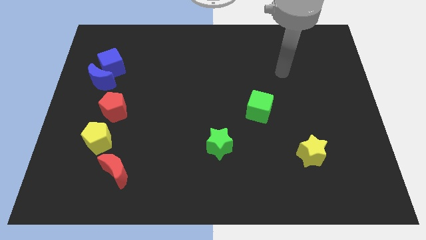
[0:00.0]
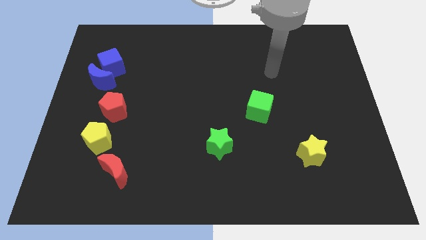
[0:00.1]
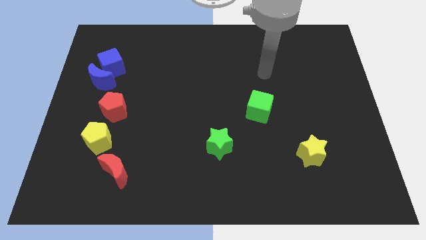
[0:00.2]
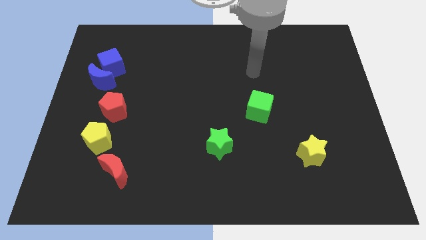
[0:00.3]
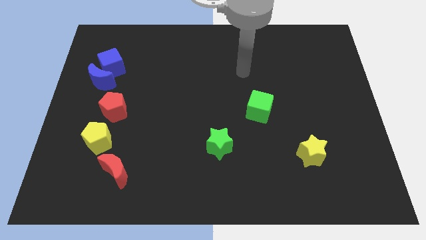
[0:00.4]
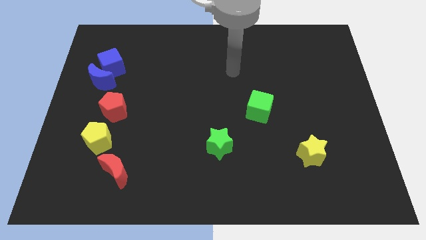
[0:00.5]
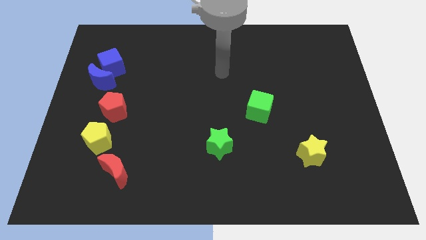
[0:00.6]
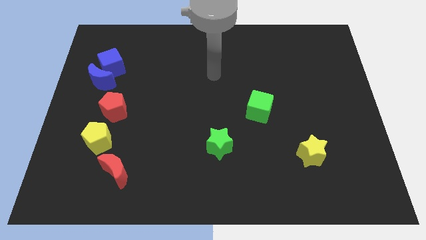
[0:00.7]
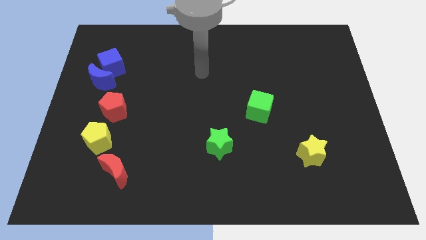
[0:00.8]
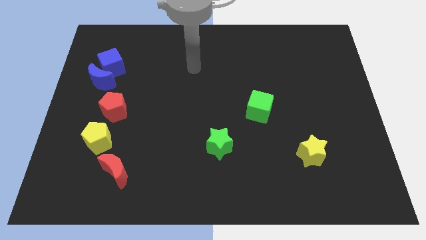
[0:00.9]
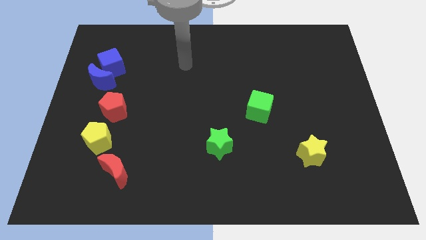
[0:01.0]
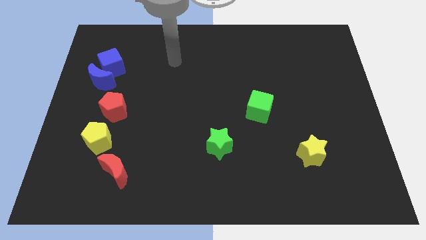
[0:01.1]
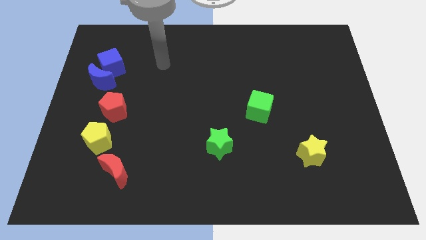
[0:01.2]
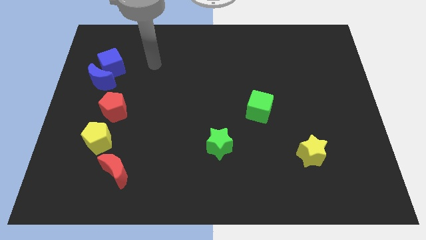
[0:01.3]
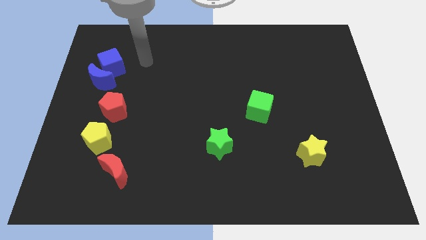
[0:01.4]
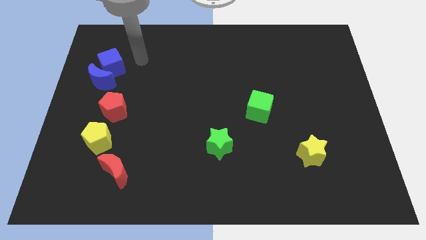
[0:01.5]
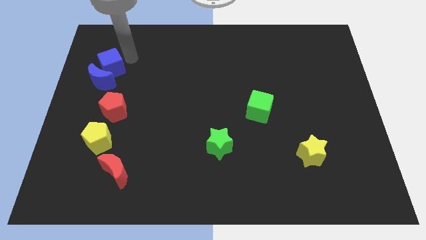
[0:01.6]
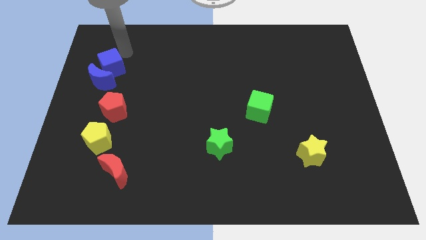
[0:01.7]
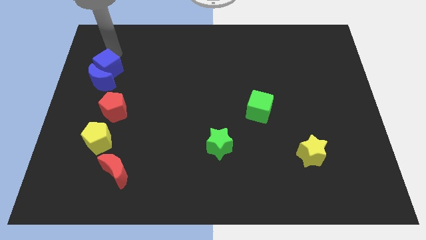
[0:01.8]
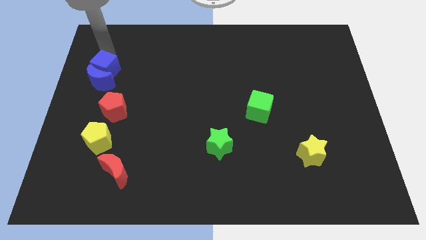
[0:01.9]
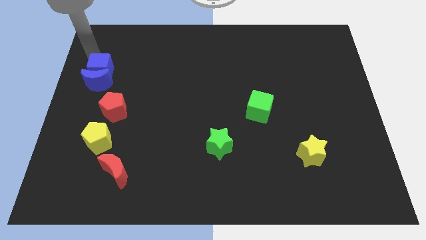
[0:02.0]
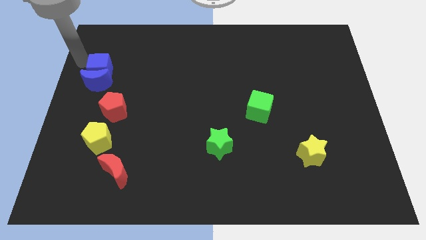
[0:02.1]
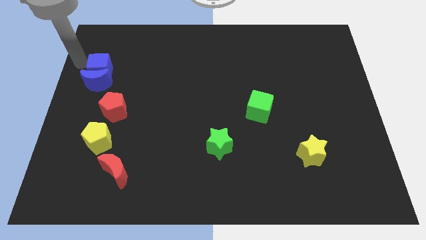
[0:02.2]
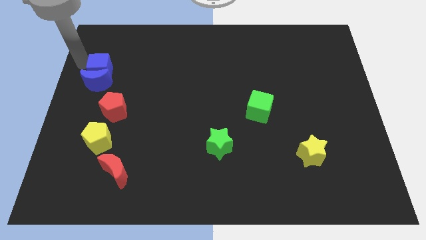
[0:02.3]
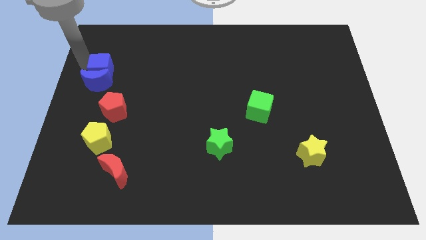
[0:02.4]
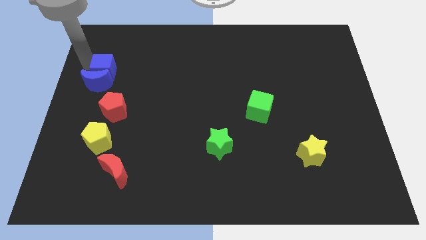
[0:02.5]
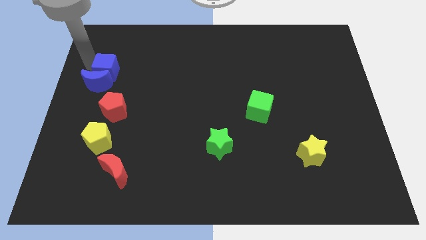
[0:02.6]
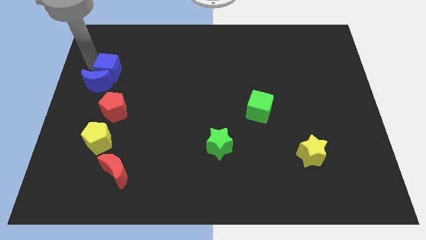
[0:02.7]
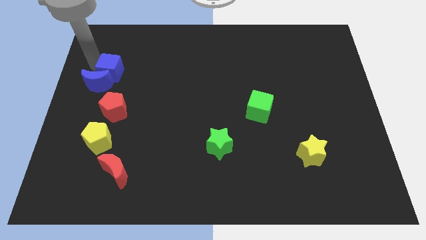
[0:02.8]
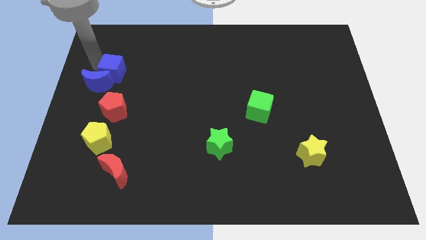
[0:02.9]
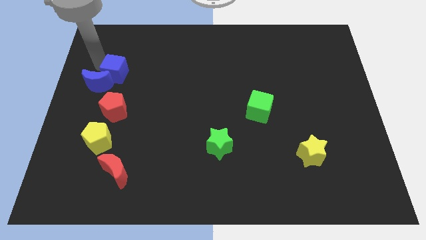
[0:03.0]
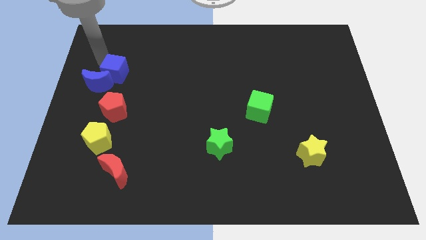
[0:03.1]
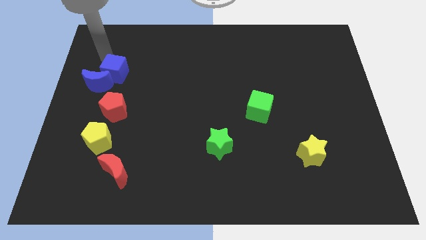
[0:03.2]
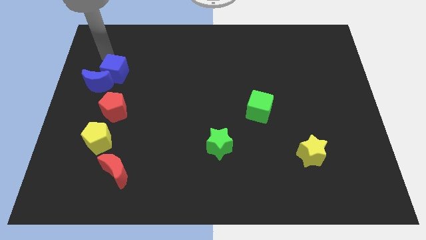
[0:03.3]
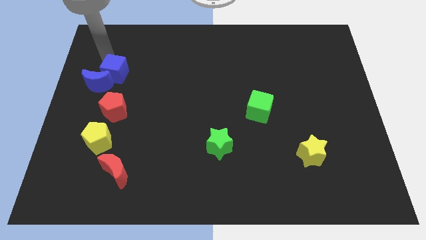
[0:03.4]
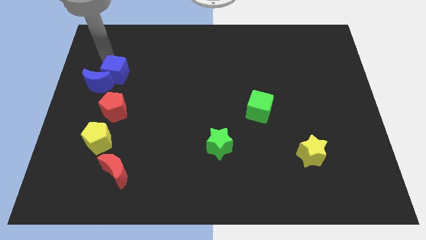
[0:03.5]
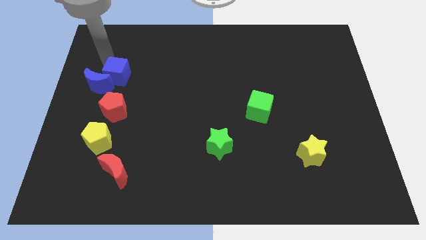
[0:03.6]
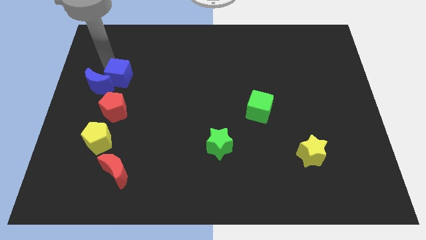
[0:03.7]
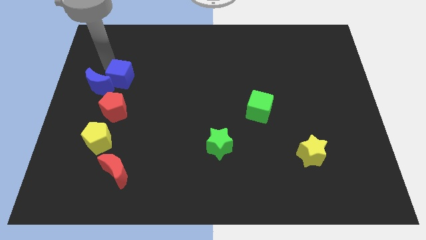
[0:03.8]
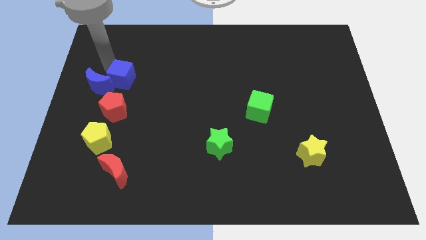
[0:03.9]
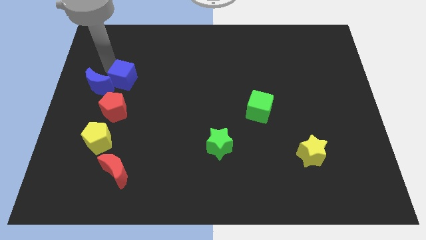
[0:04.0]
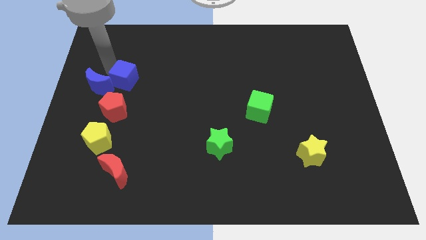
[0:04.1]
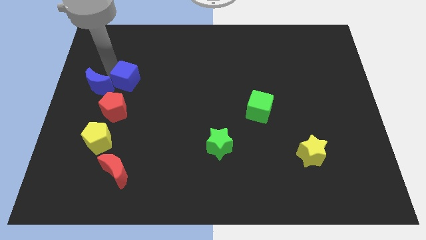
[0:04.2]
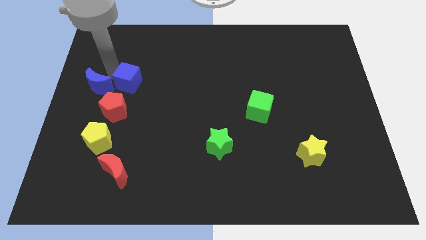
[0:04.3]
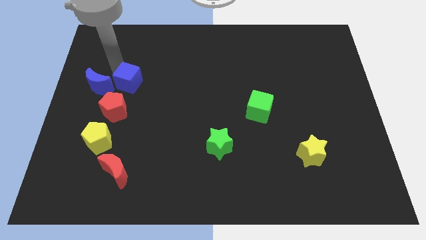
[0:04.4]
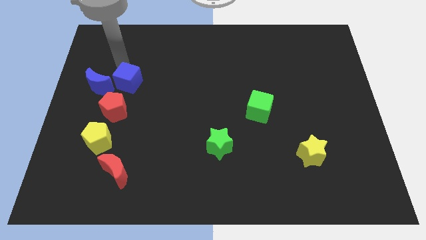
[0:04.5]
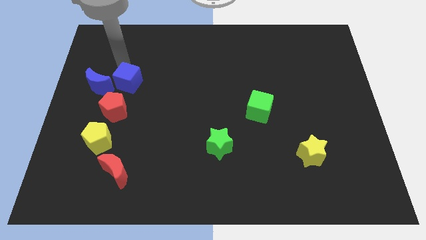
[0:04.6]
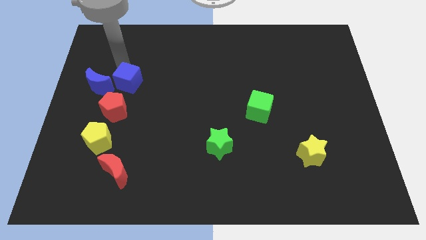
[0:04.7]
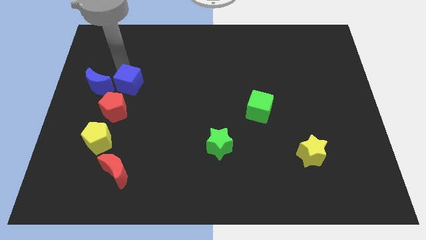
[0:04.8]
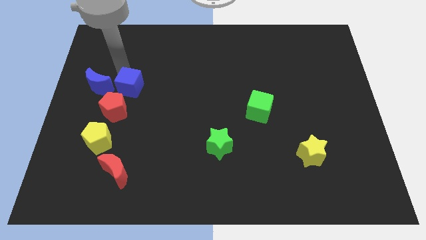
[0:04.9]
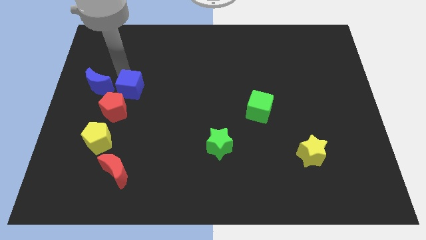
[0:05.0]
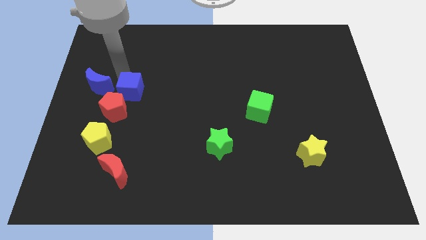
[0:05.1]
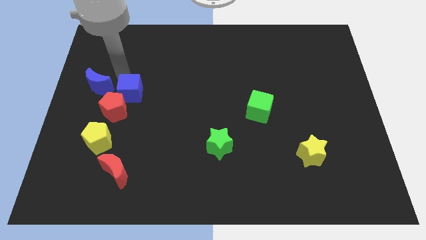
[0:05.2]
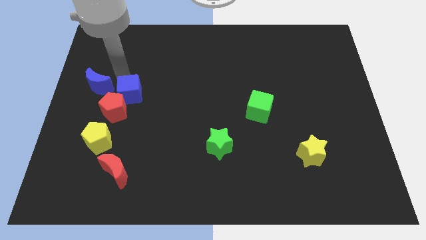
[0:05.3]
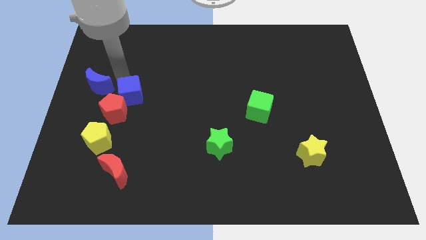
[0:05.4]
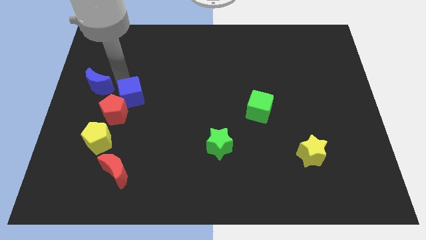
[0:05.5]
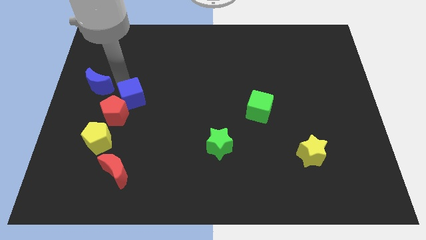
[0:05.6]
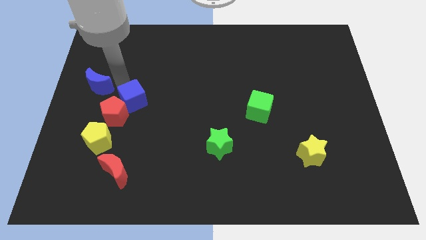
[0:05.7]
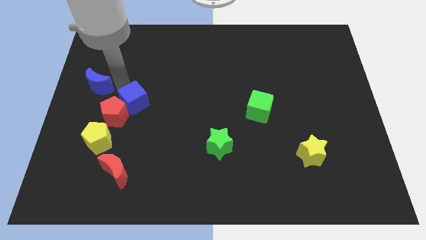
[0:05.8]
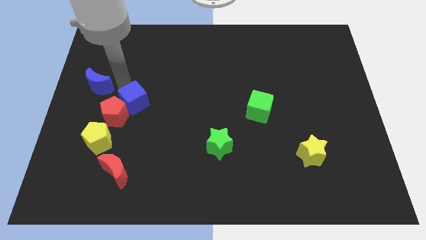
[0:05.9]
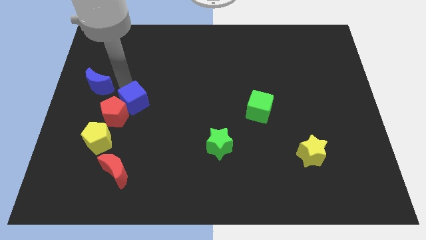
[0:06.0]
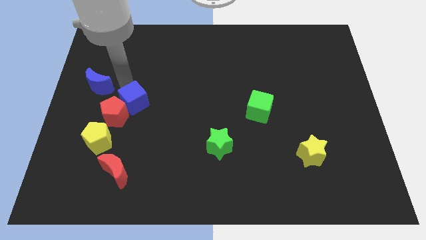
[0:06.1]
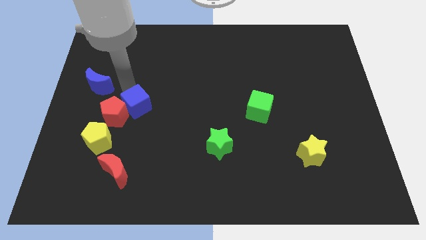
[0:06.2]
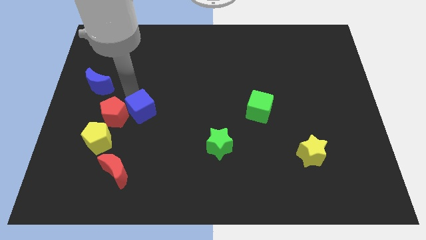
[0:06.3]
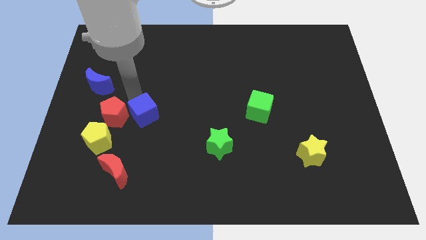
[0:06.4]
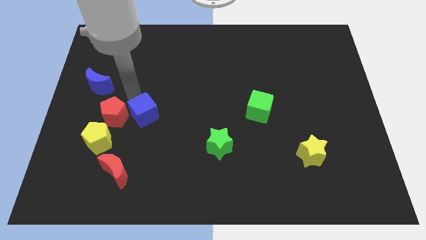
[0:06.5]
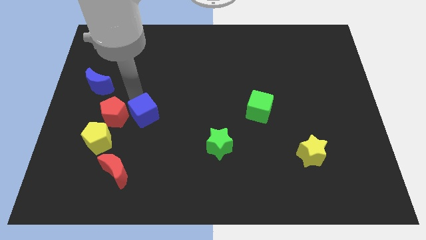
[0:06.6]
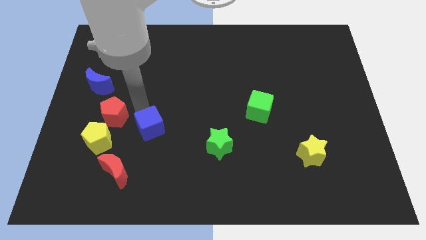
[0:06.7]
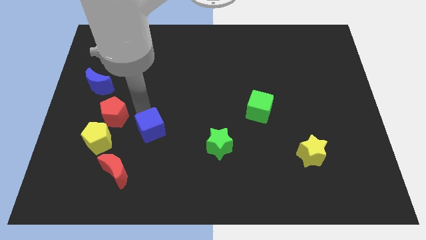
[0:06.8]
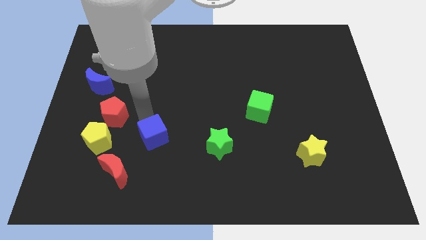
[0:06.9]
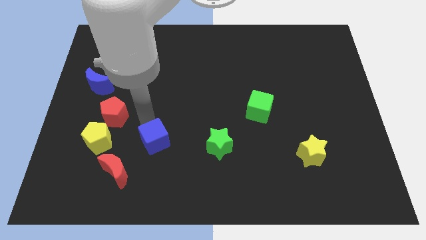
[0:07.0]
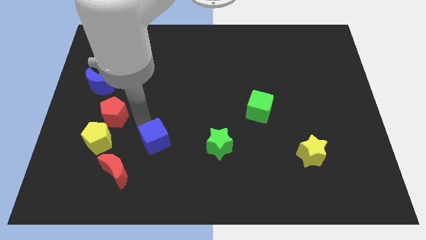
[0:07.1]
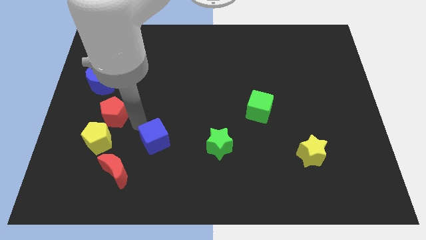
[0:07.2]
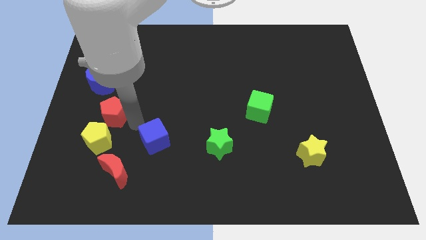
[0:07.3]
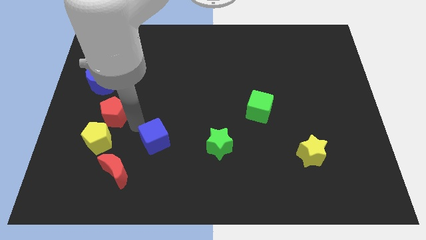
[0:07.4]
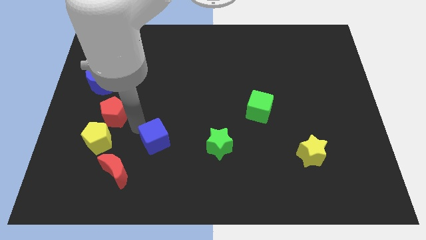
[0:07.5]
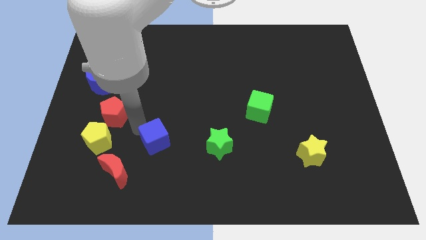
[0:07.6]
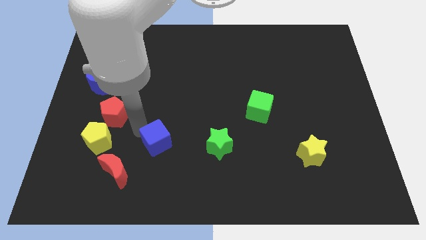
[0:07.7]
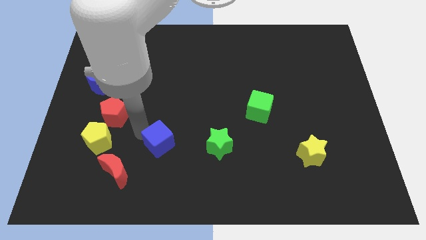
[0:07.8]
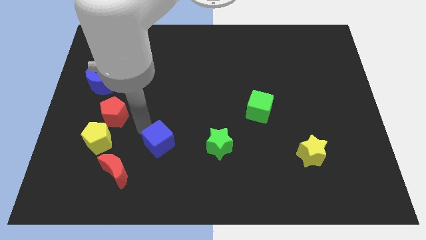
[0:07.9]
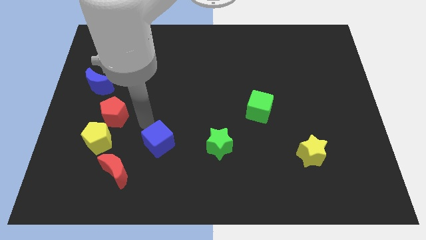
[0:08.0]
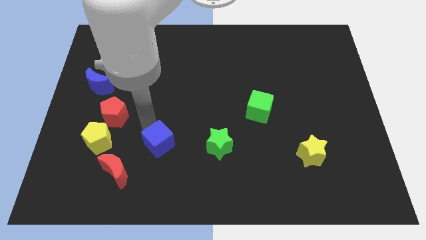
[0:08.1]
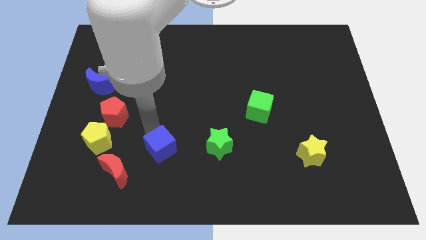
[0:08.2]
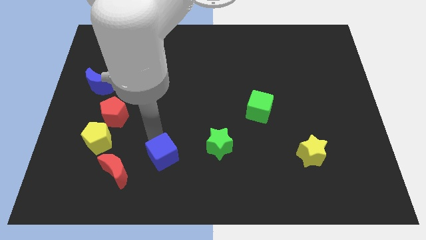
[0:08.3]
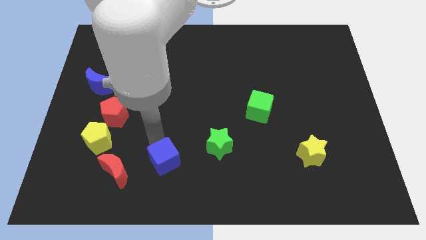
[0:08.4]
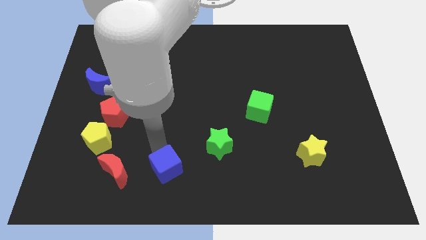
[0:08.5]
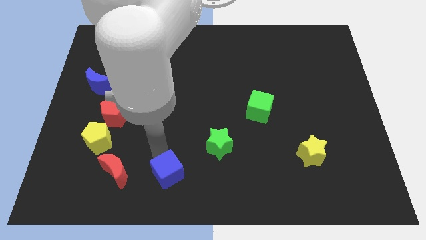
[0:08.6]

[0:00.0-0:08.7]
move the blue cube to the bottom
